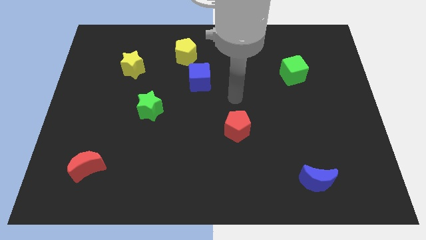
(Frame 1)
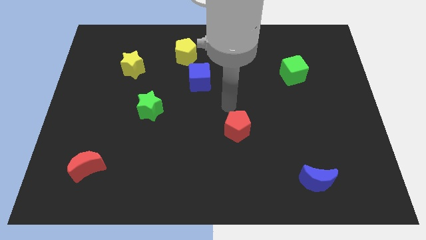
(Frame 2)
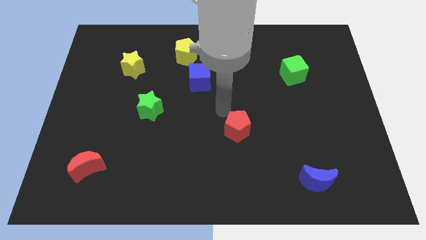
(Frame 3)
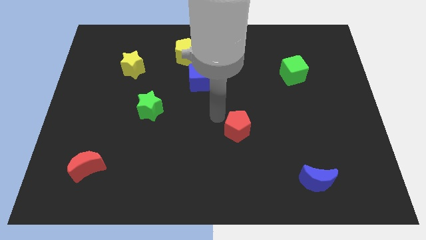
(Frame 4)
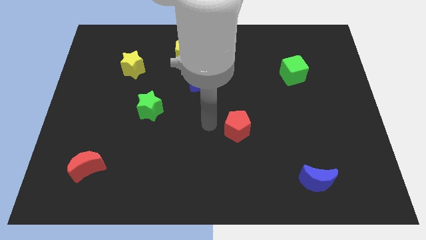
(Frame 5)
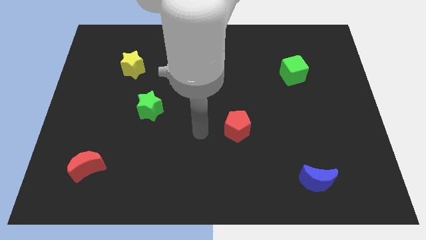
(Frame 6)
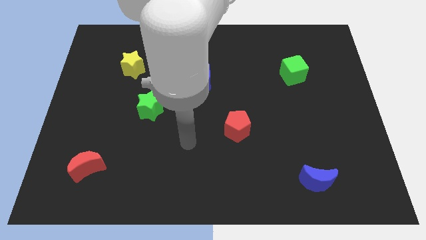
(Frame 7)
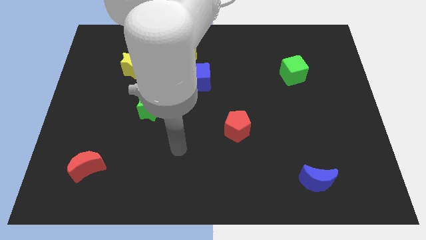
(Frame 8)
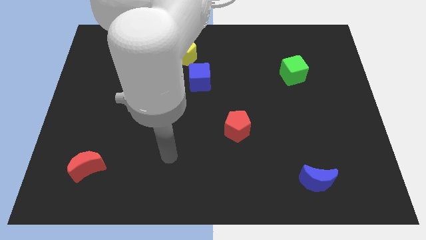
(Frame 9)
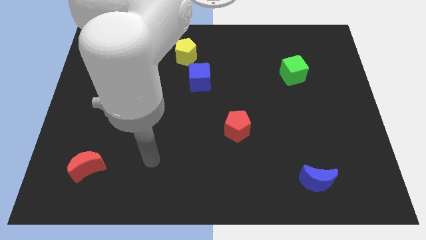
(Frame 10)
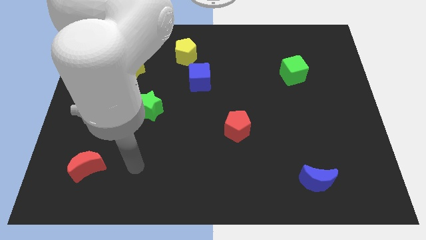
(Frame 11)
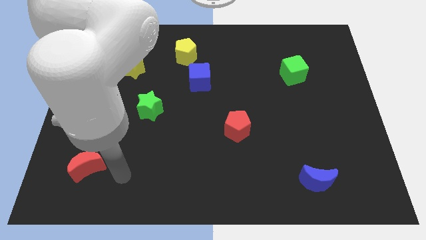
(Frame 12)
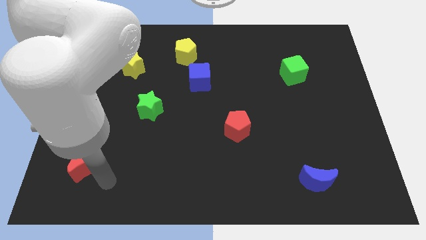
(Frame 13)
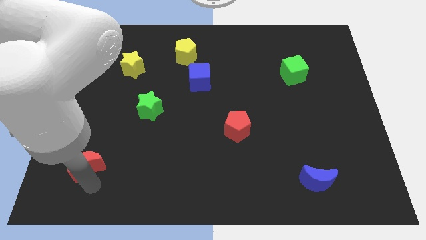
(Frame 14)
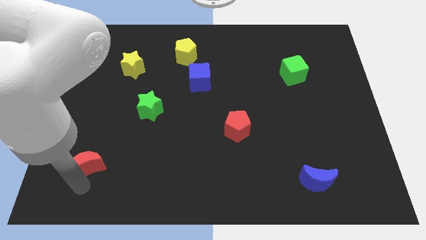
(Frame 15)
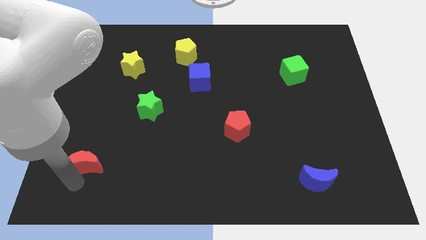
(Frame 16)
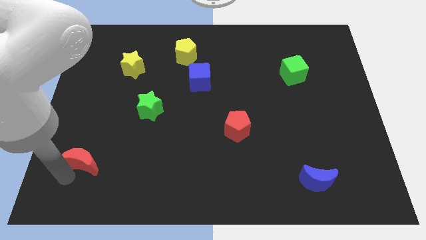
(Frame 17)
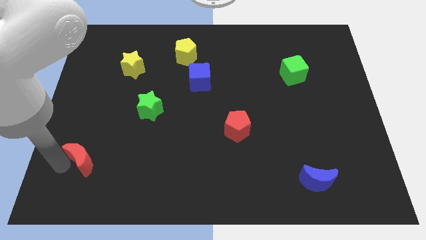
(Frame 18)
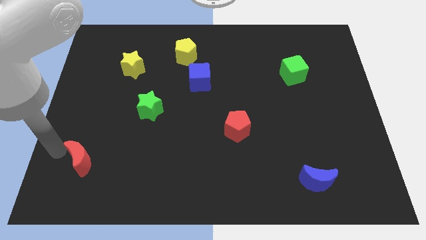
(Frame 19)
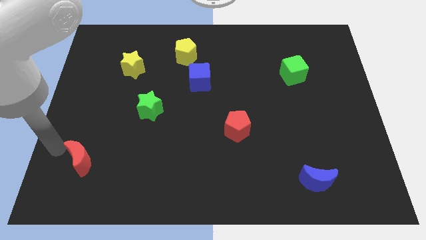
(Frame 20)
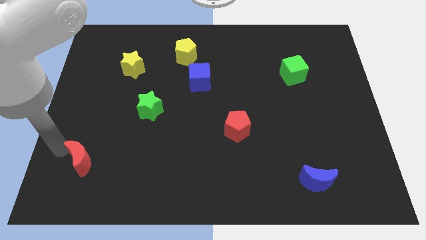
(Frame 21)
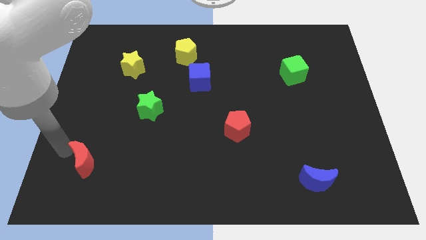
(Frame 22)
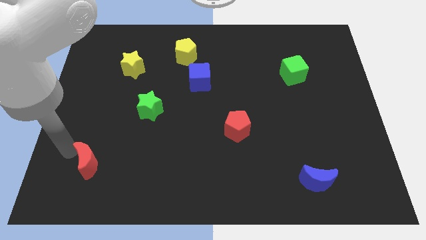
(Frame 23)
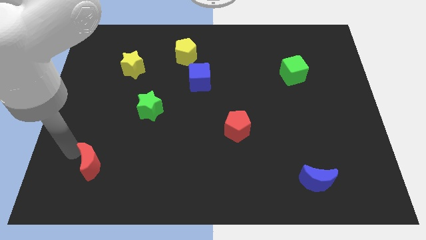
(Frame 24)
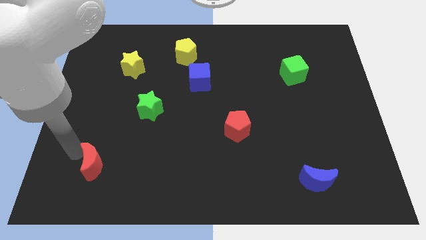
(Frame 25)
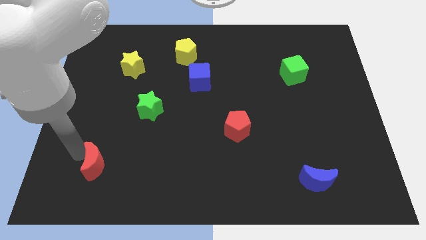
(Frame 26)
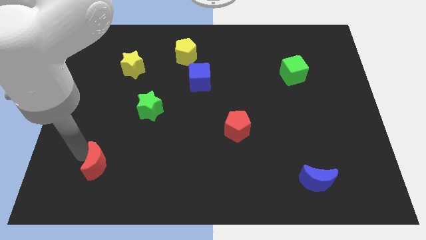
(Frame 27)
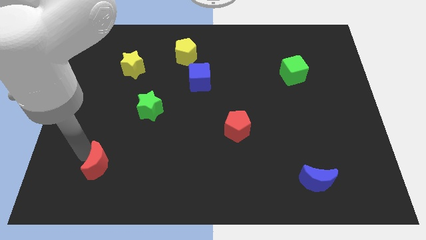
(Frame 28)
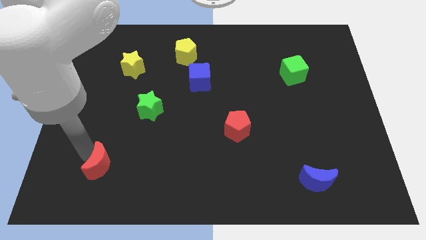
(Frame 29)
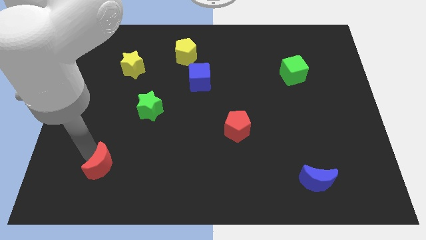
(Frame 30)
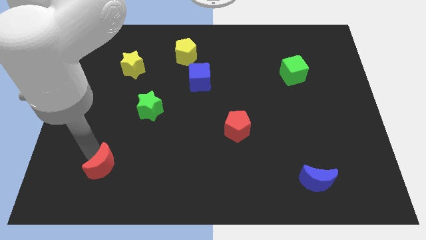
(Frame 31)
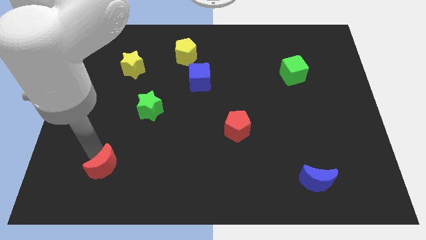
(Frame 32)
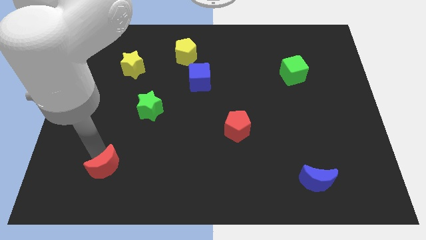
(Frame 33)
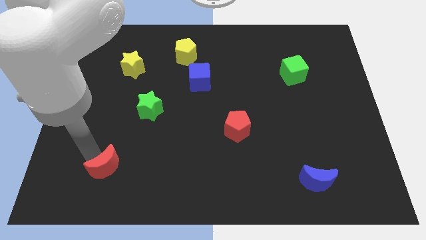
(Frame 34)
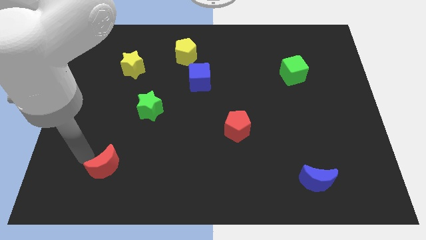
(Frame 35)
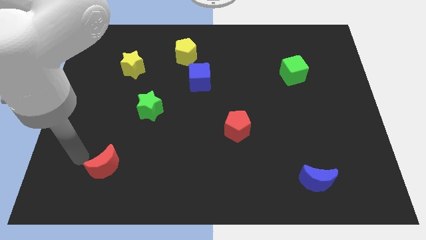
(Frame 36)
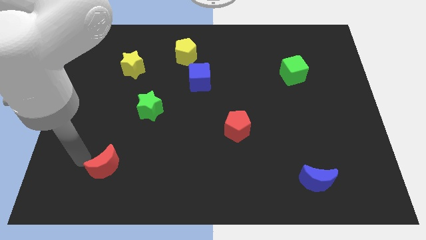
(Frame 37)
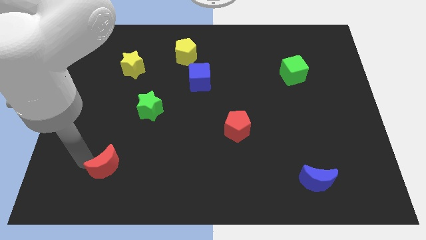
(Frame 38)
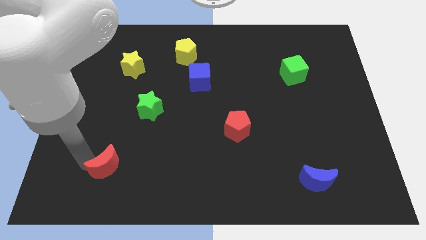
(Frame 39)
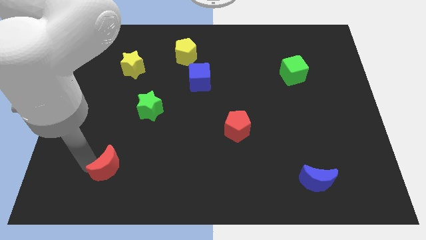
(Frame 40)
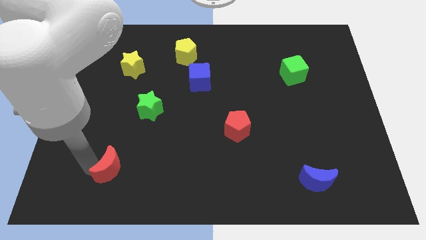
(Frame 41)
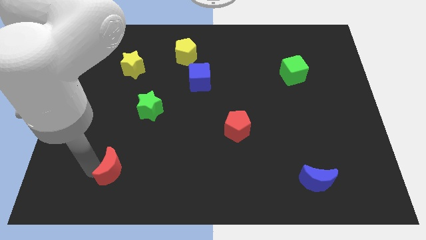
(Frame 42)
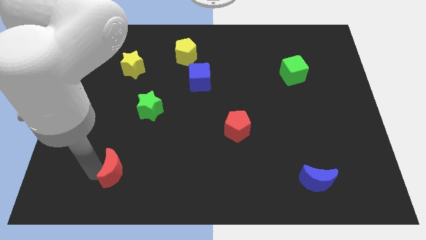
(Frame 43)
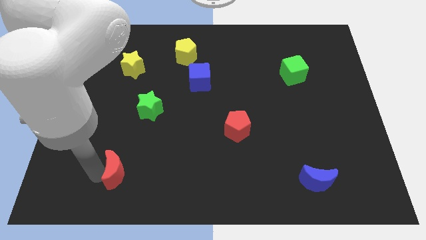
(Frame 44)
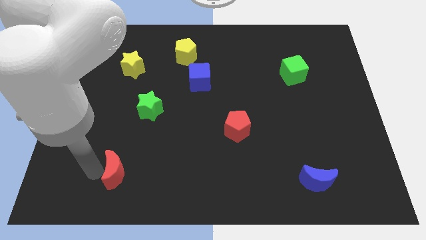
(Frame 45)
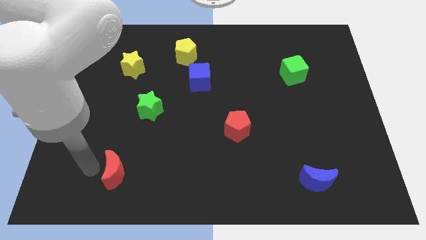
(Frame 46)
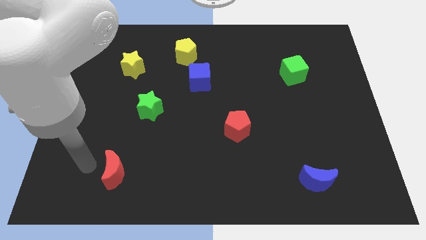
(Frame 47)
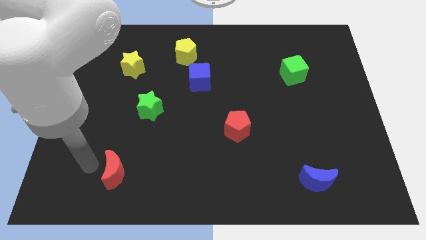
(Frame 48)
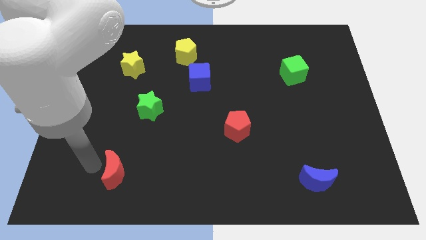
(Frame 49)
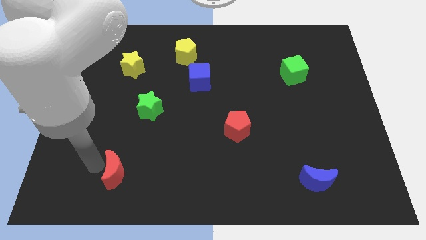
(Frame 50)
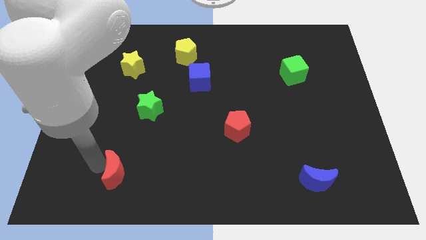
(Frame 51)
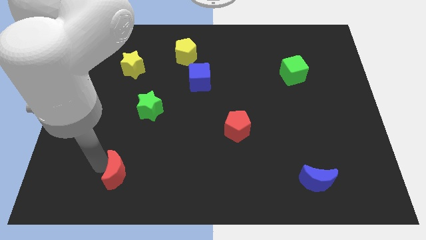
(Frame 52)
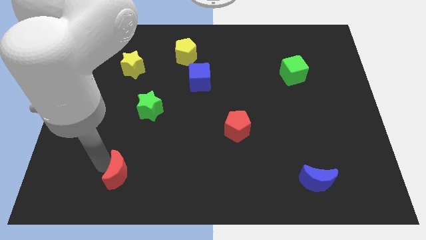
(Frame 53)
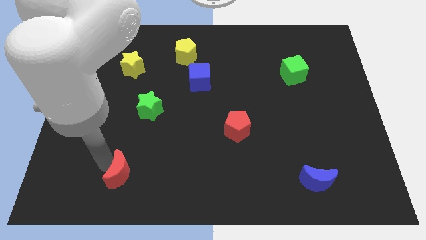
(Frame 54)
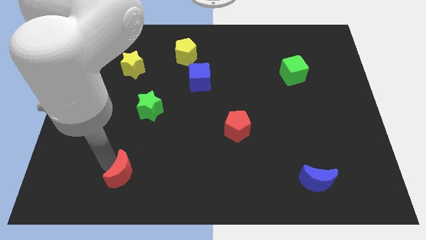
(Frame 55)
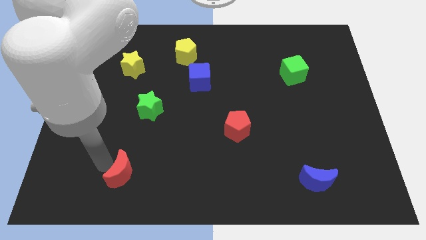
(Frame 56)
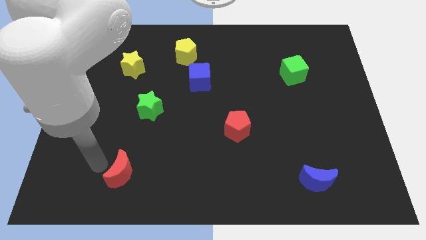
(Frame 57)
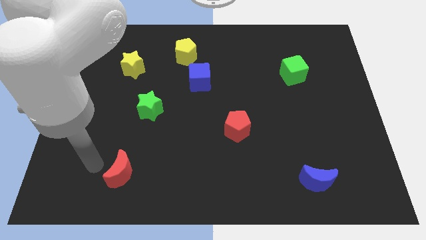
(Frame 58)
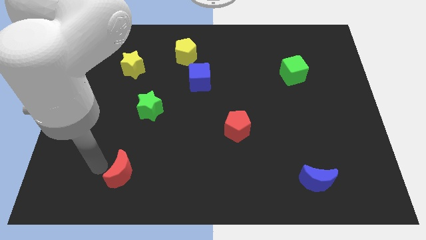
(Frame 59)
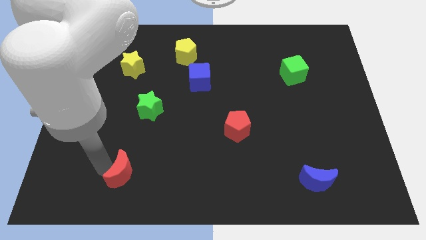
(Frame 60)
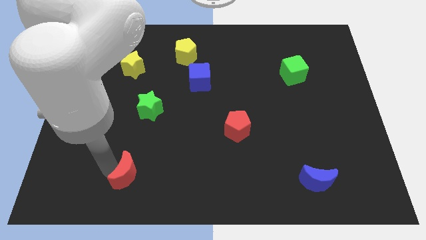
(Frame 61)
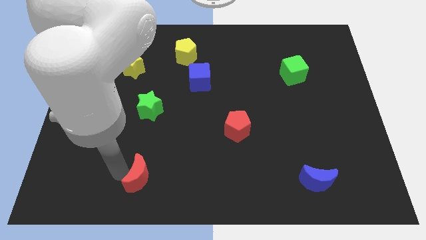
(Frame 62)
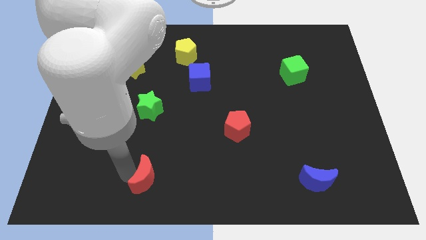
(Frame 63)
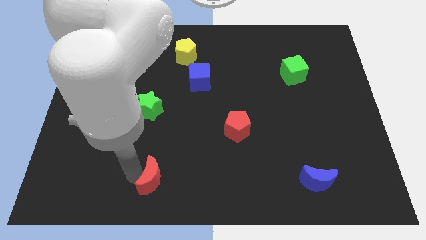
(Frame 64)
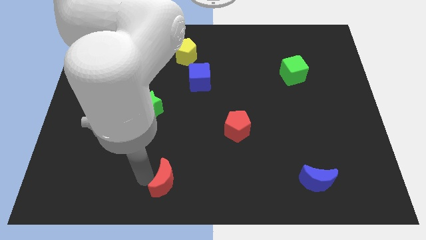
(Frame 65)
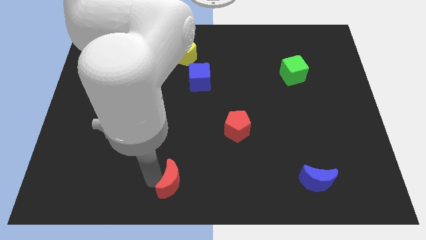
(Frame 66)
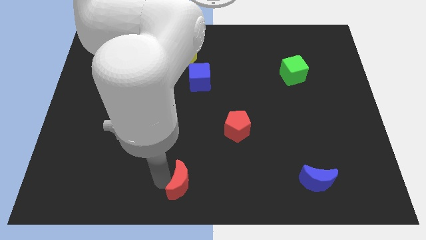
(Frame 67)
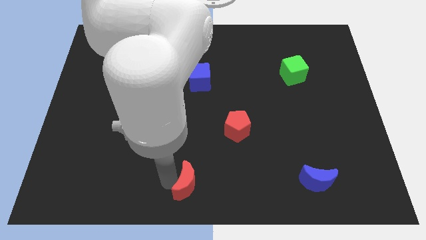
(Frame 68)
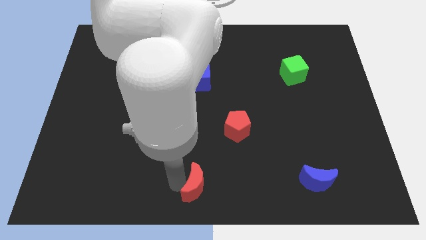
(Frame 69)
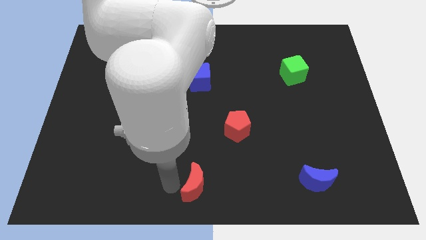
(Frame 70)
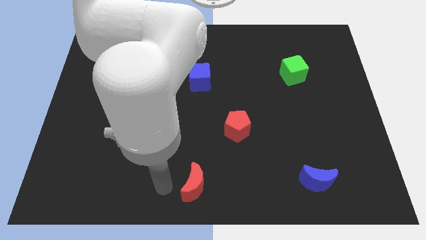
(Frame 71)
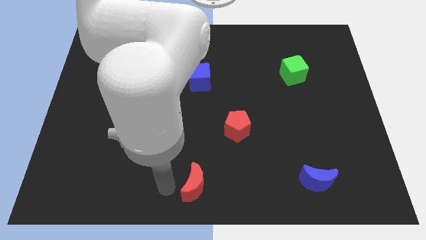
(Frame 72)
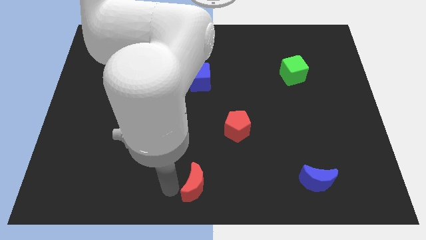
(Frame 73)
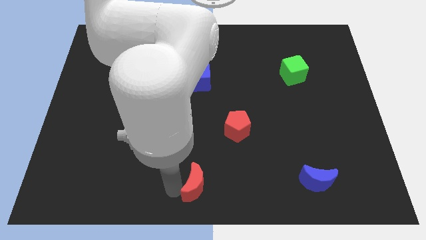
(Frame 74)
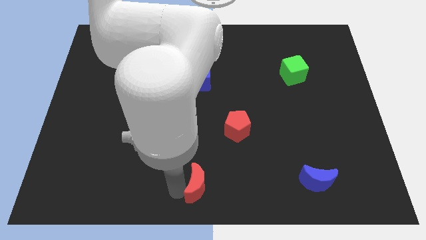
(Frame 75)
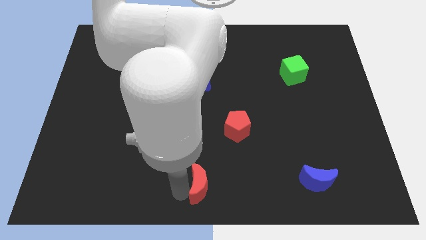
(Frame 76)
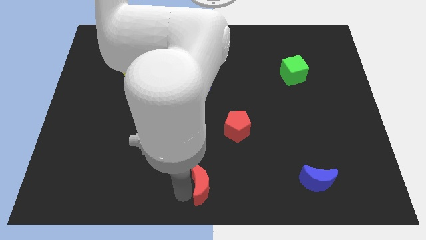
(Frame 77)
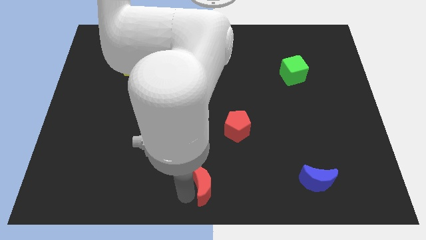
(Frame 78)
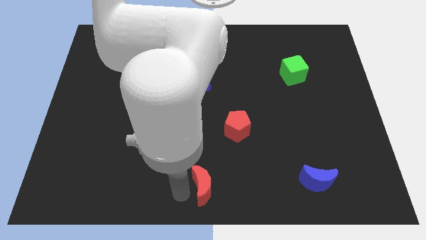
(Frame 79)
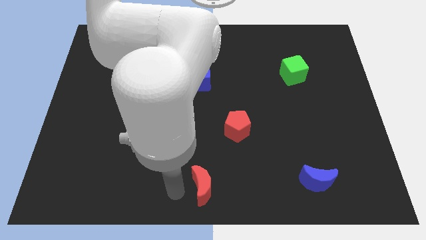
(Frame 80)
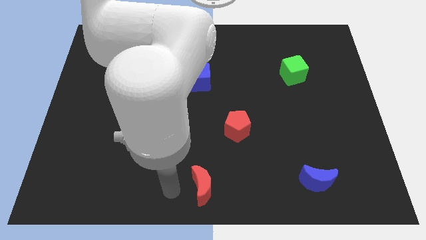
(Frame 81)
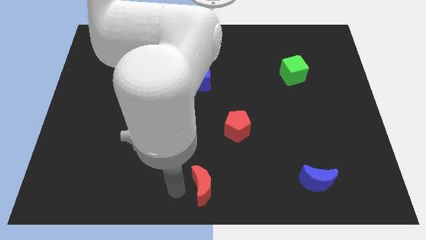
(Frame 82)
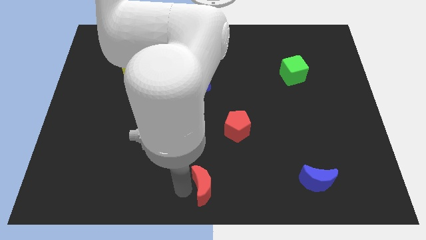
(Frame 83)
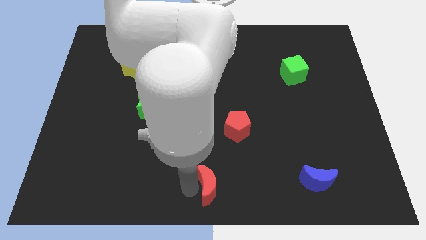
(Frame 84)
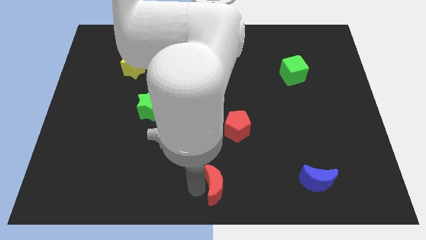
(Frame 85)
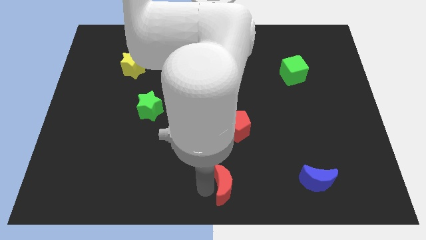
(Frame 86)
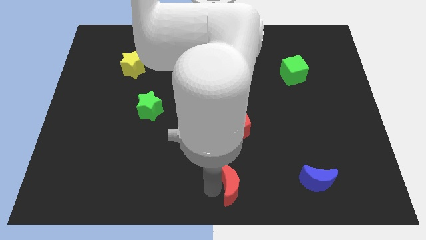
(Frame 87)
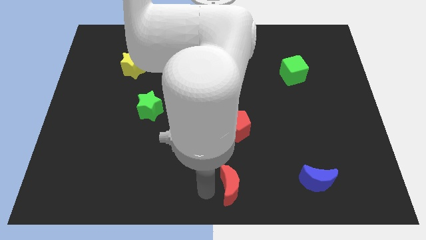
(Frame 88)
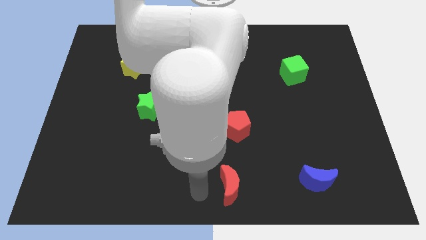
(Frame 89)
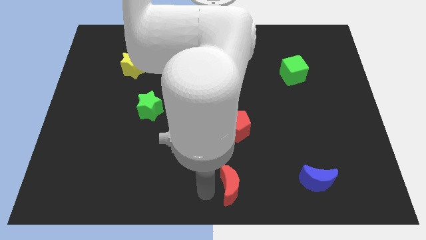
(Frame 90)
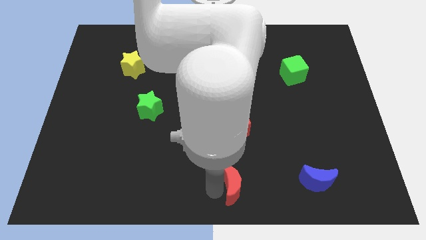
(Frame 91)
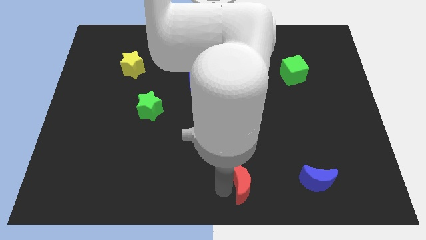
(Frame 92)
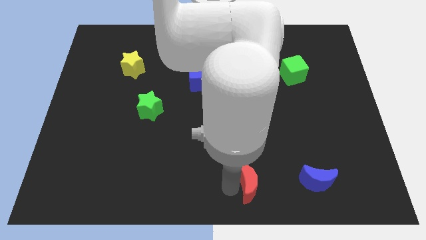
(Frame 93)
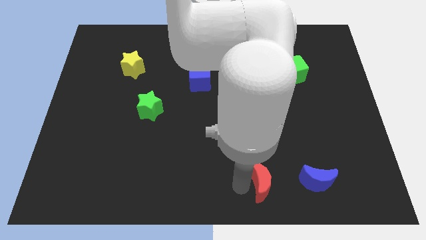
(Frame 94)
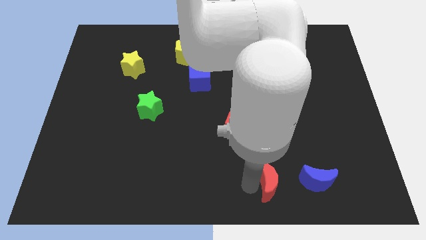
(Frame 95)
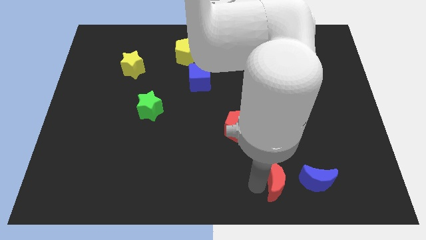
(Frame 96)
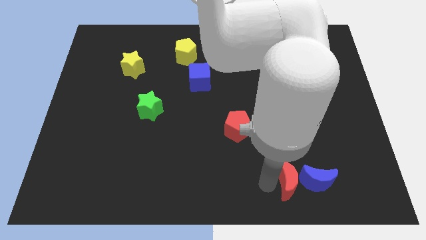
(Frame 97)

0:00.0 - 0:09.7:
push the red moon close to the blue moon
